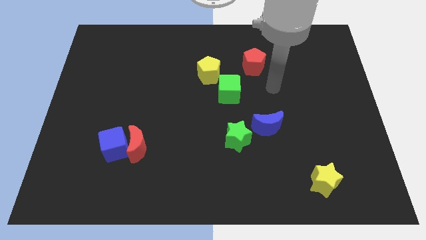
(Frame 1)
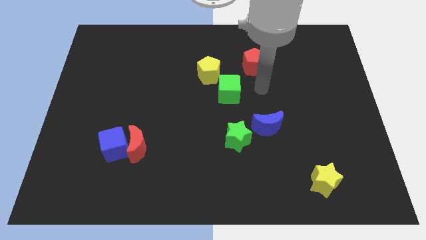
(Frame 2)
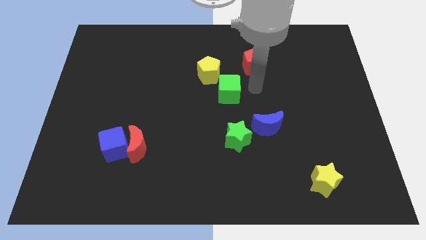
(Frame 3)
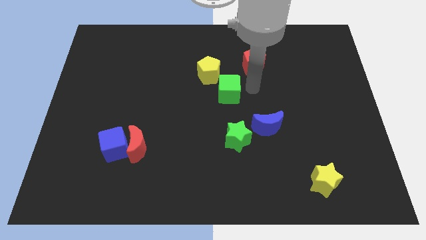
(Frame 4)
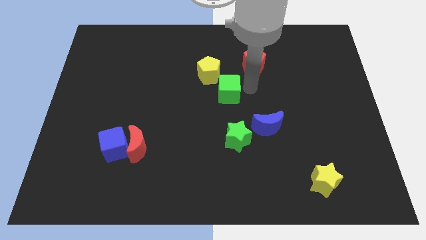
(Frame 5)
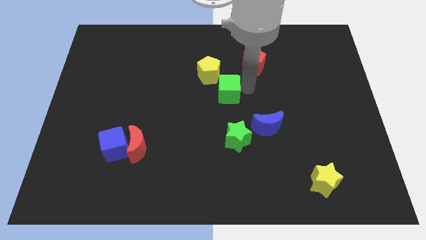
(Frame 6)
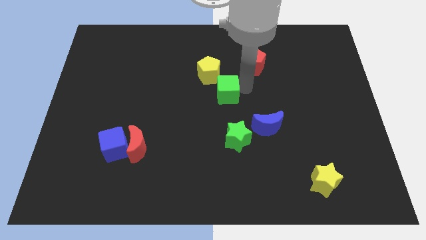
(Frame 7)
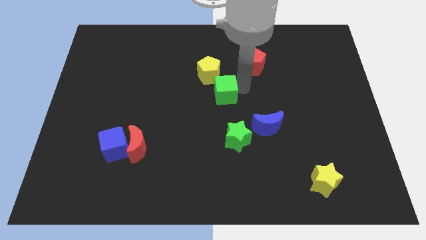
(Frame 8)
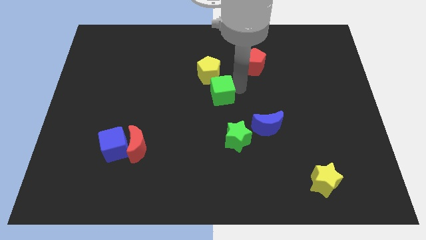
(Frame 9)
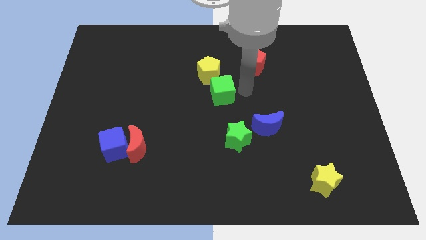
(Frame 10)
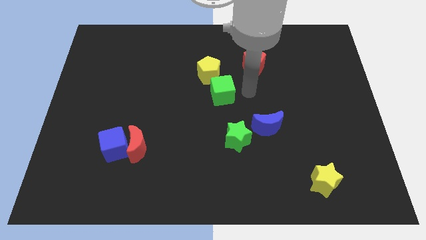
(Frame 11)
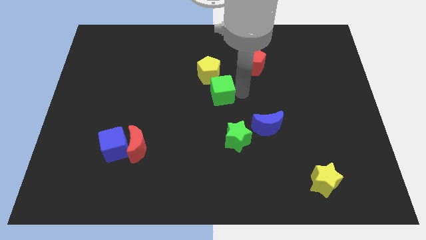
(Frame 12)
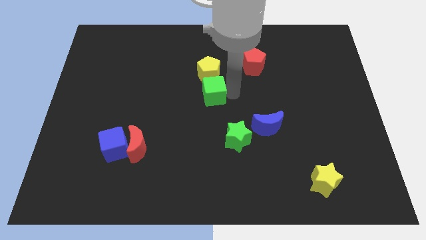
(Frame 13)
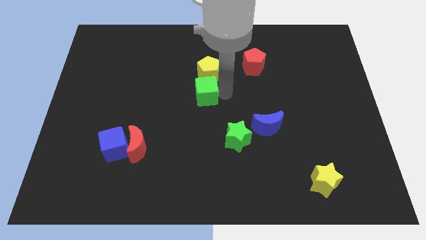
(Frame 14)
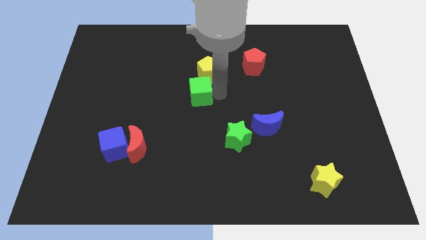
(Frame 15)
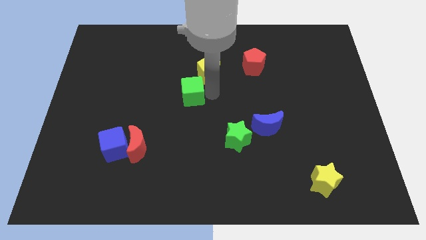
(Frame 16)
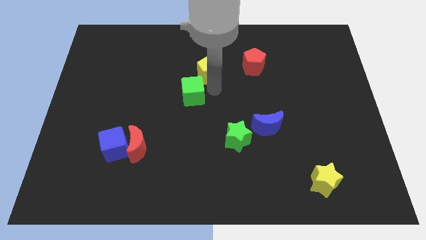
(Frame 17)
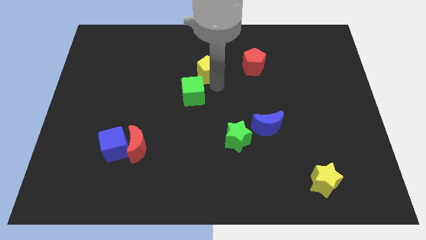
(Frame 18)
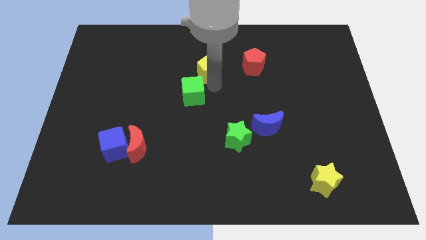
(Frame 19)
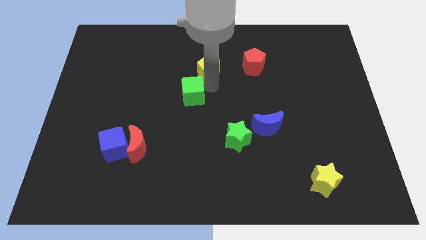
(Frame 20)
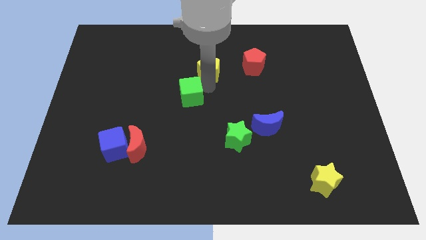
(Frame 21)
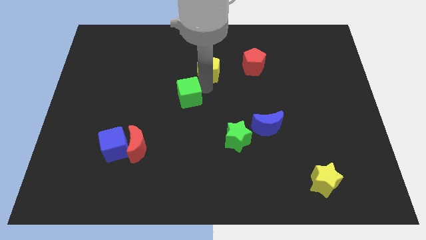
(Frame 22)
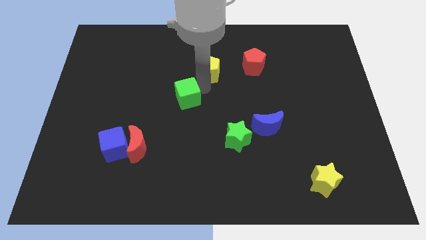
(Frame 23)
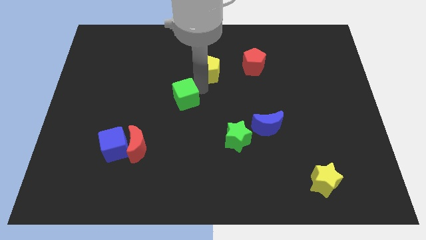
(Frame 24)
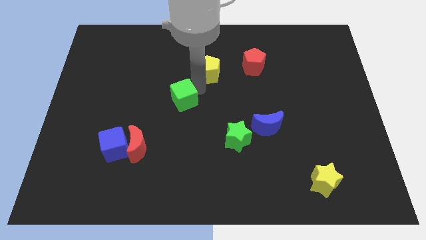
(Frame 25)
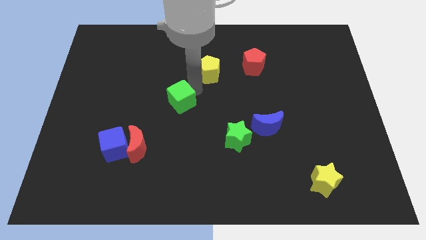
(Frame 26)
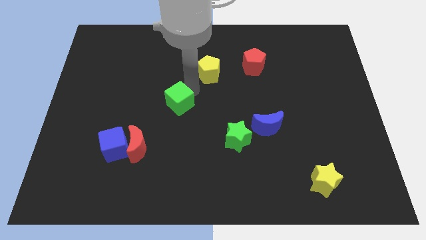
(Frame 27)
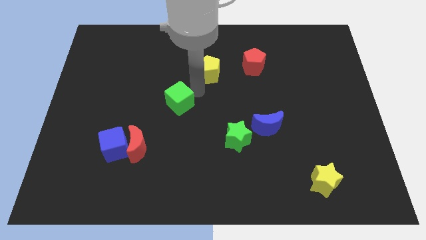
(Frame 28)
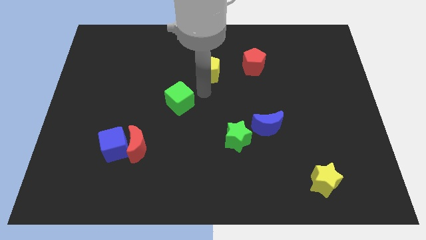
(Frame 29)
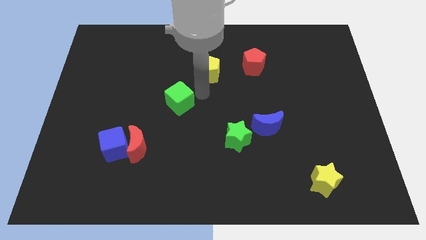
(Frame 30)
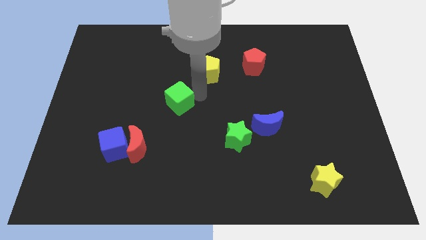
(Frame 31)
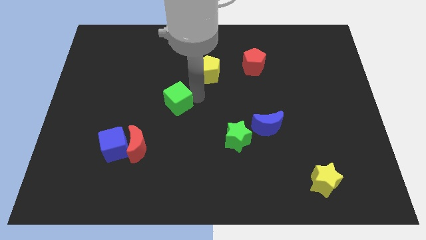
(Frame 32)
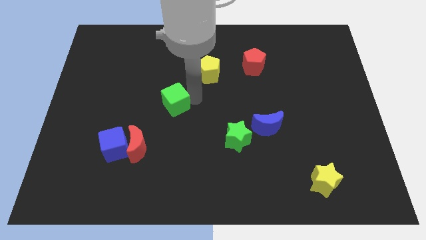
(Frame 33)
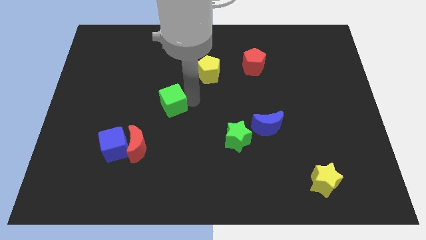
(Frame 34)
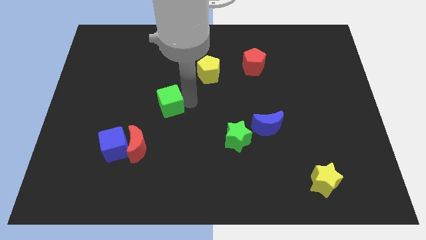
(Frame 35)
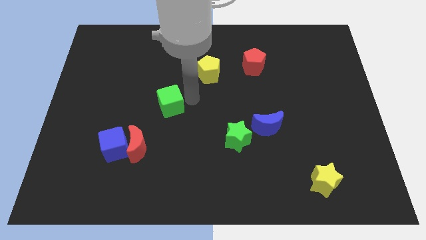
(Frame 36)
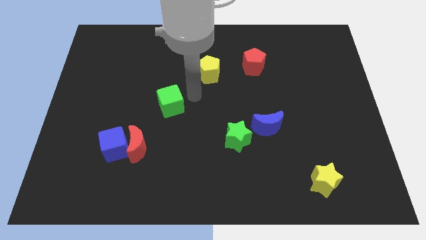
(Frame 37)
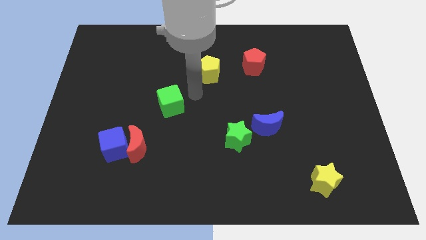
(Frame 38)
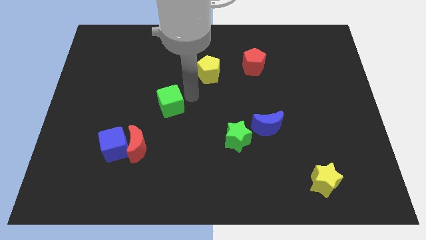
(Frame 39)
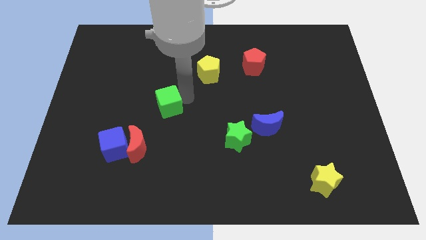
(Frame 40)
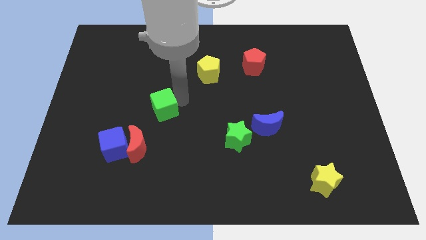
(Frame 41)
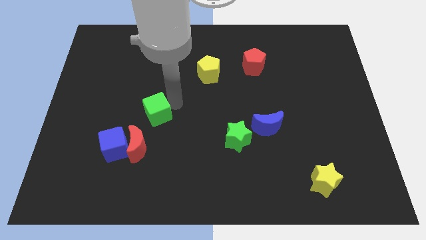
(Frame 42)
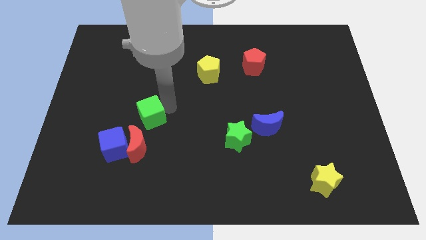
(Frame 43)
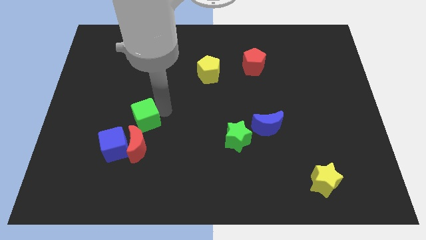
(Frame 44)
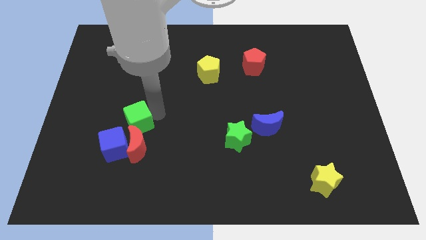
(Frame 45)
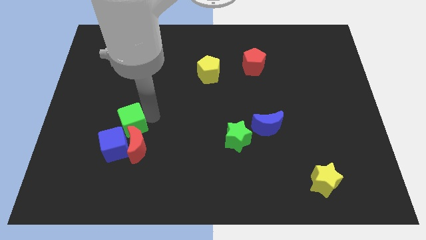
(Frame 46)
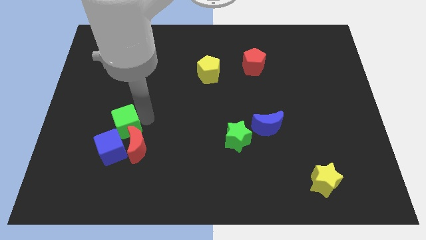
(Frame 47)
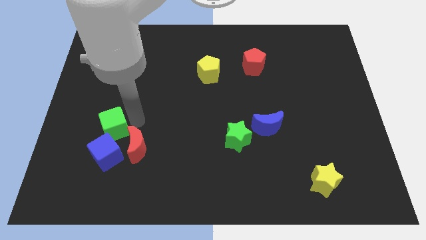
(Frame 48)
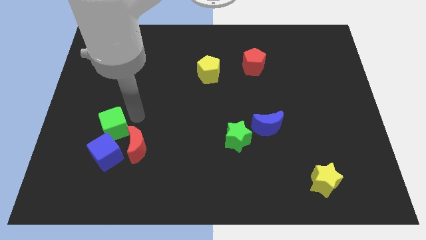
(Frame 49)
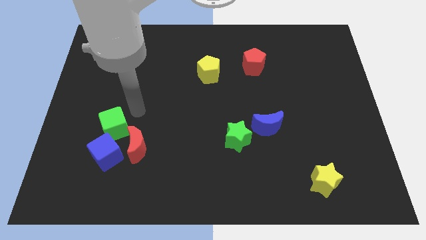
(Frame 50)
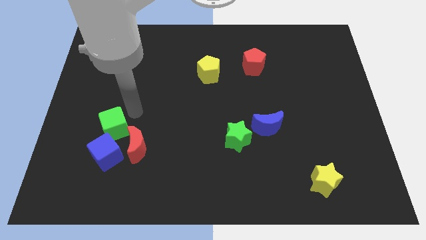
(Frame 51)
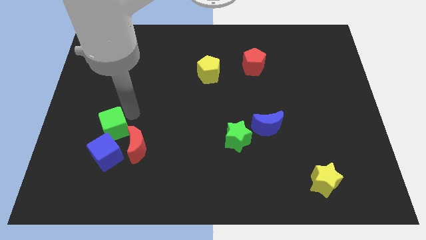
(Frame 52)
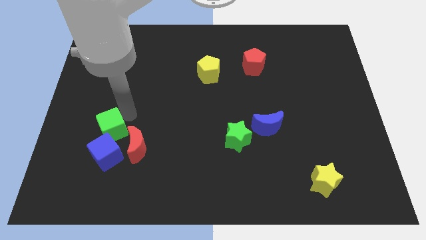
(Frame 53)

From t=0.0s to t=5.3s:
move the green cube to the left side of the red moon

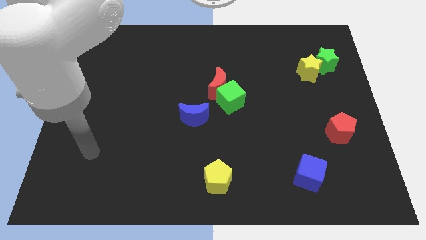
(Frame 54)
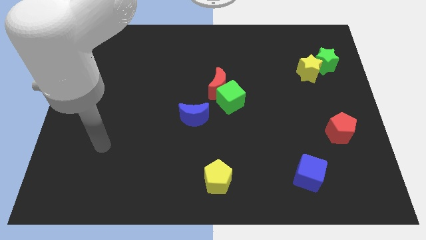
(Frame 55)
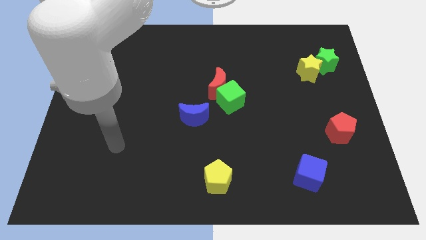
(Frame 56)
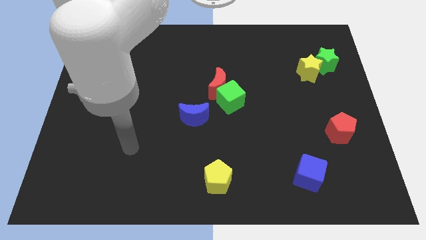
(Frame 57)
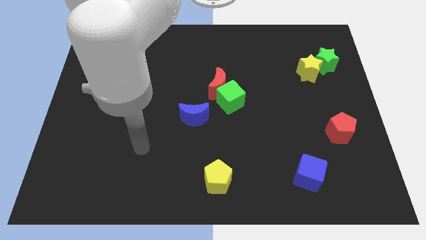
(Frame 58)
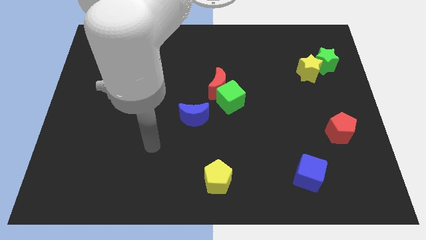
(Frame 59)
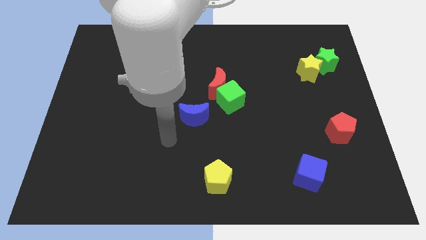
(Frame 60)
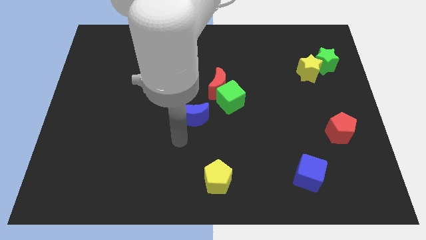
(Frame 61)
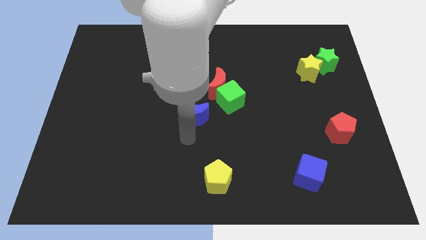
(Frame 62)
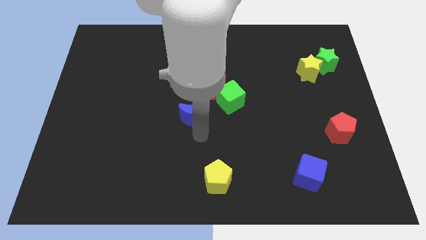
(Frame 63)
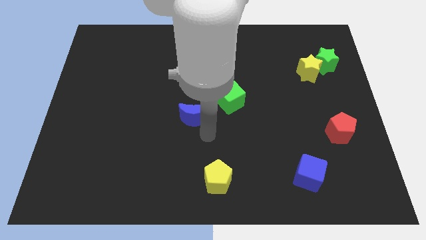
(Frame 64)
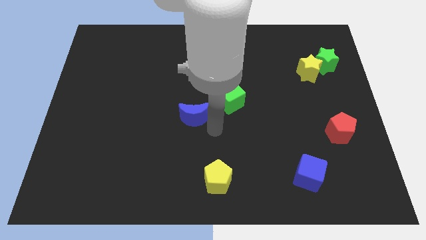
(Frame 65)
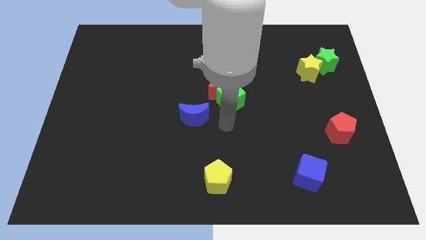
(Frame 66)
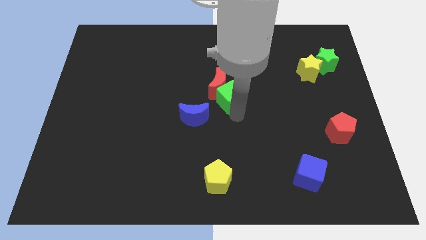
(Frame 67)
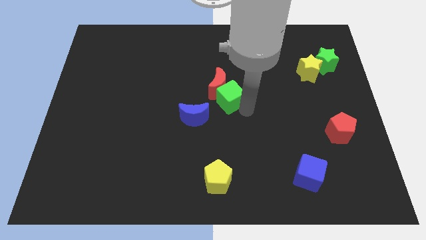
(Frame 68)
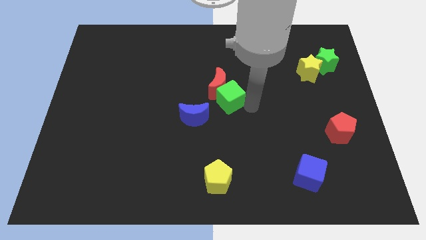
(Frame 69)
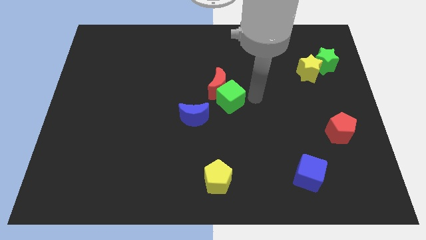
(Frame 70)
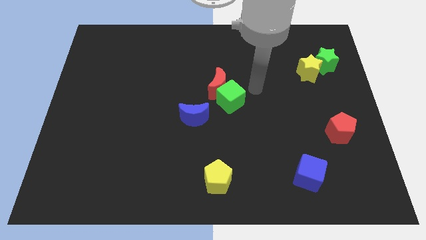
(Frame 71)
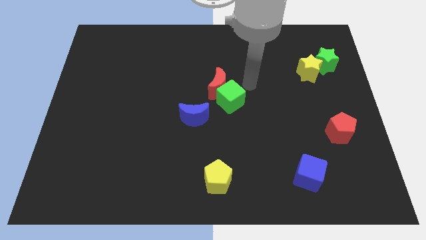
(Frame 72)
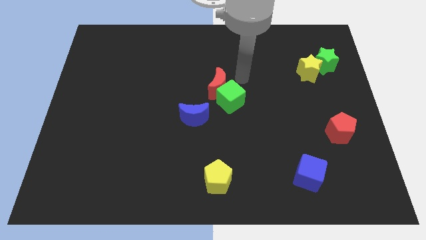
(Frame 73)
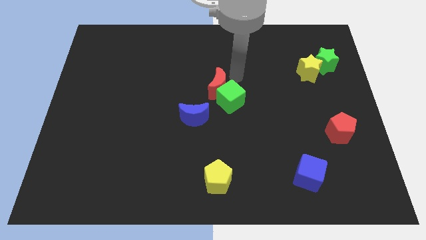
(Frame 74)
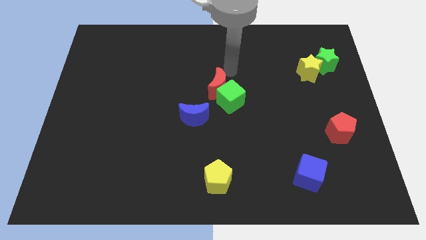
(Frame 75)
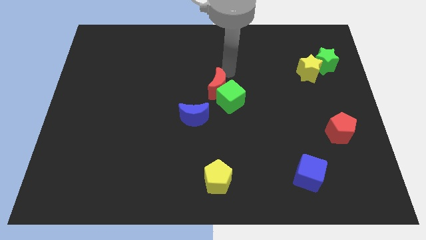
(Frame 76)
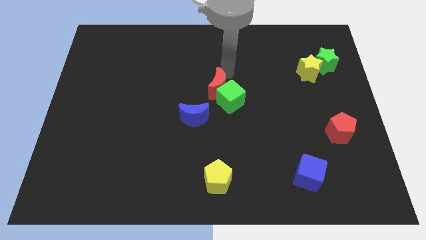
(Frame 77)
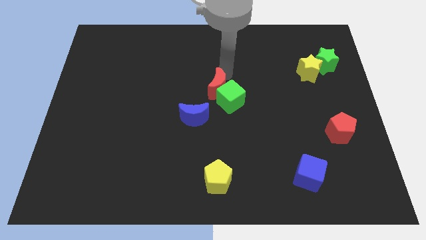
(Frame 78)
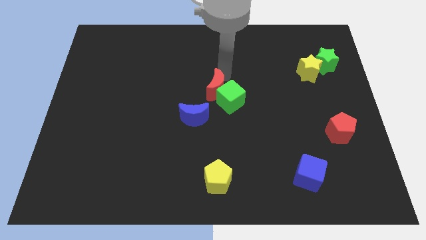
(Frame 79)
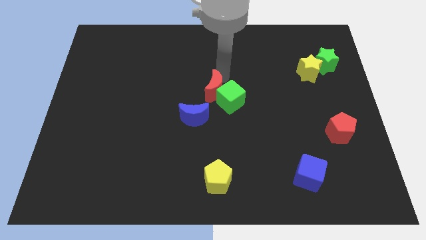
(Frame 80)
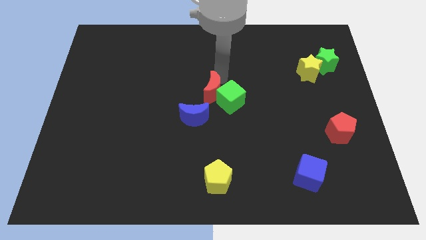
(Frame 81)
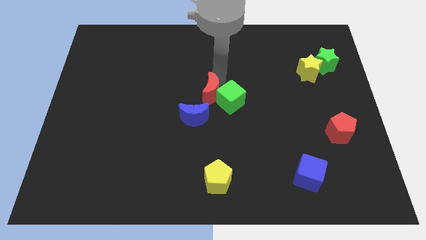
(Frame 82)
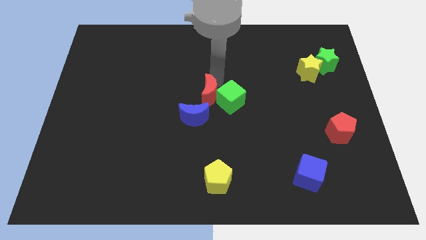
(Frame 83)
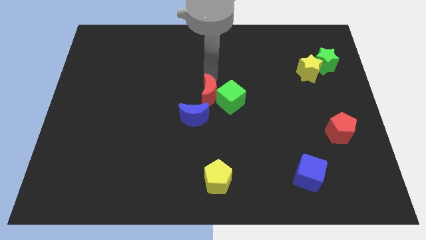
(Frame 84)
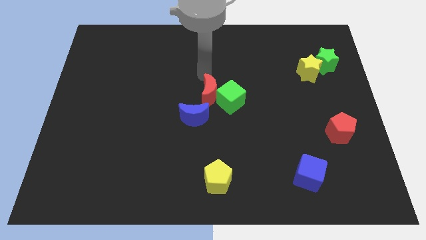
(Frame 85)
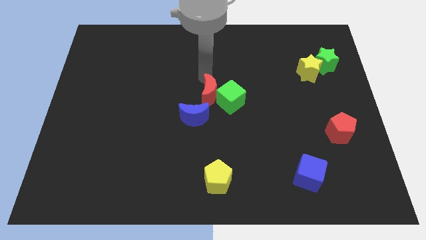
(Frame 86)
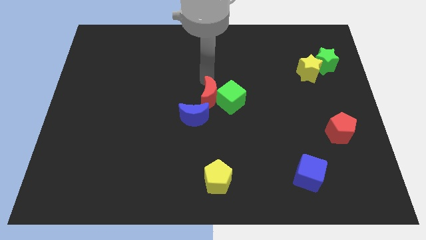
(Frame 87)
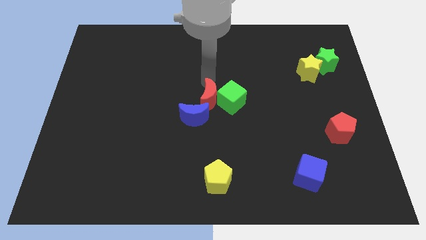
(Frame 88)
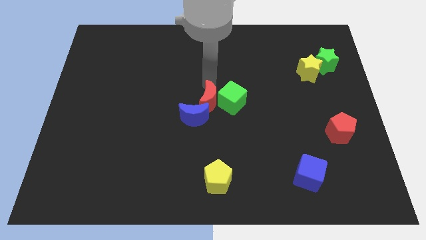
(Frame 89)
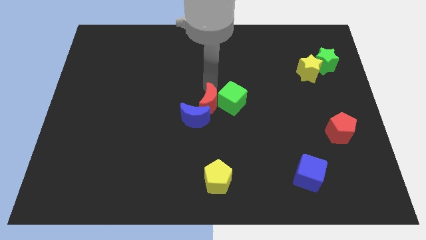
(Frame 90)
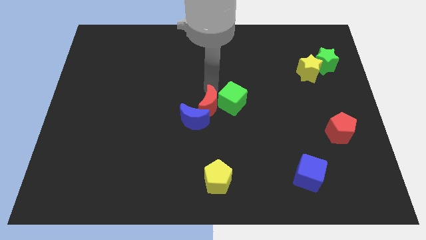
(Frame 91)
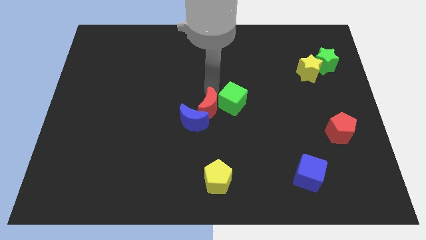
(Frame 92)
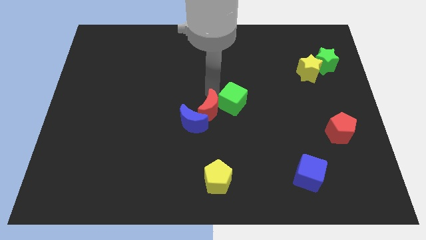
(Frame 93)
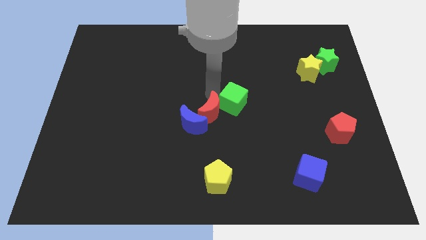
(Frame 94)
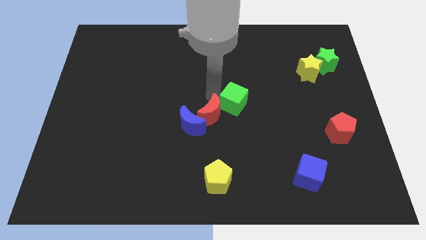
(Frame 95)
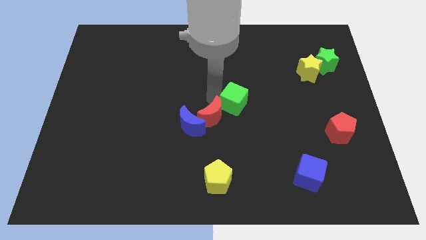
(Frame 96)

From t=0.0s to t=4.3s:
put the red moon above the yellow pentagon
